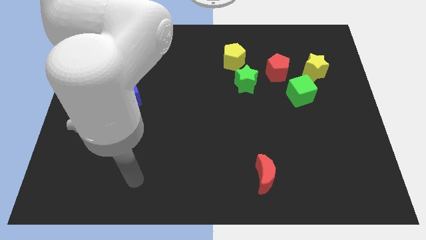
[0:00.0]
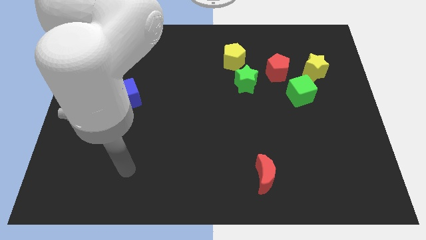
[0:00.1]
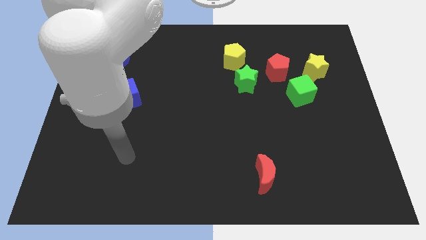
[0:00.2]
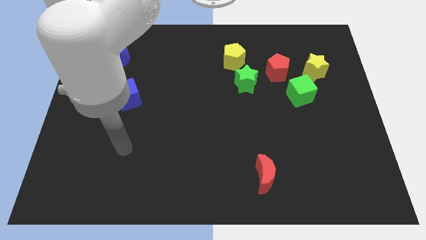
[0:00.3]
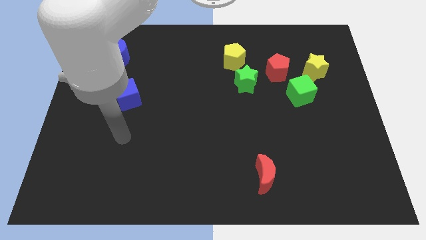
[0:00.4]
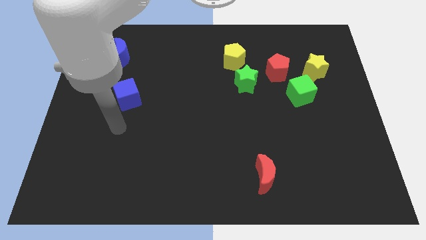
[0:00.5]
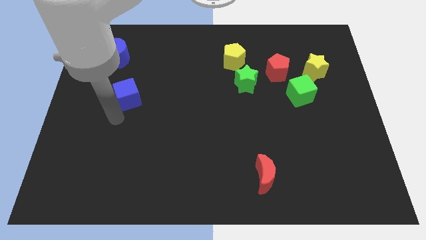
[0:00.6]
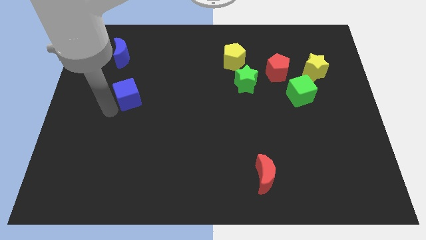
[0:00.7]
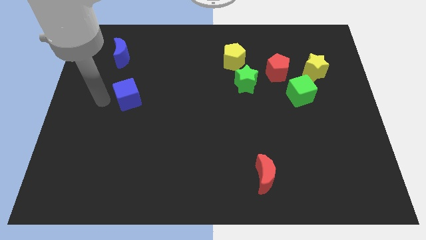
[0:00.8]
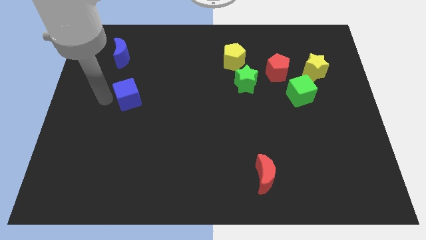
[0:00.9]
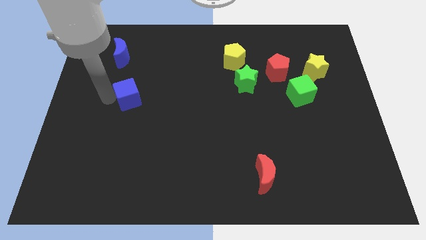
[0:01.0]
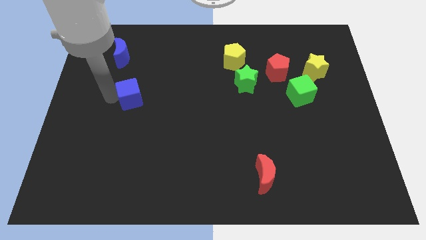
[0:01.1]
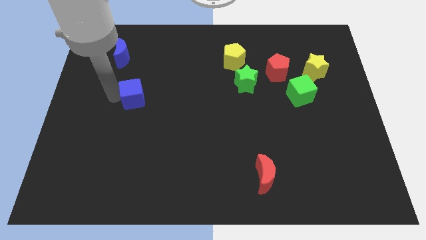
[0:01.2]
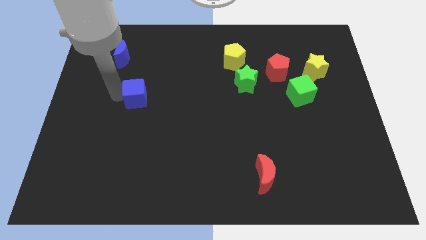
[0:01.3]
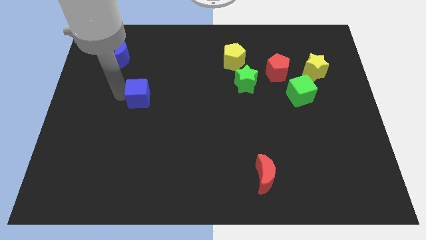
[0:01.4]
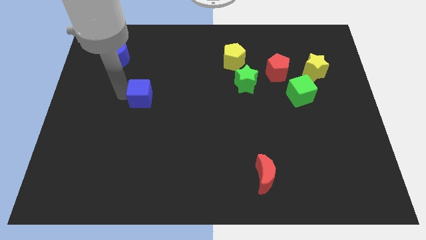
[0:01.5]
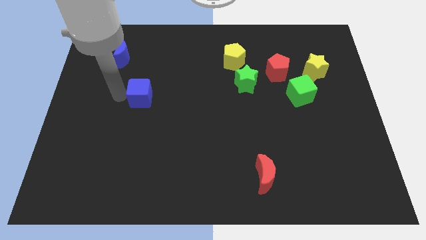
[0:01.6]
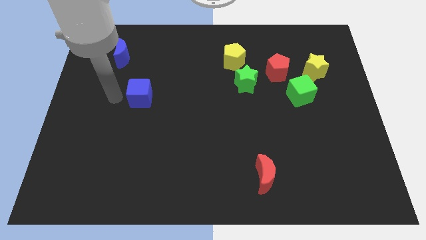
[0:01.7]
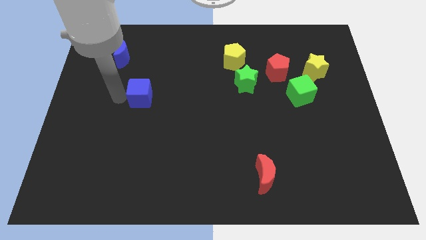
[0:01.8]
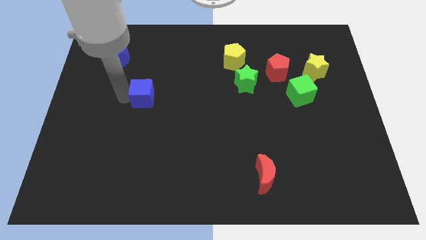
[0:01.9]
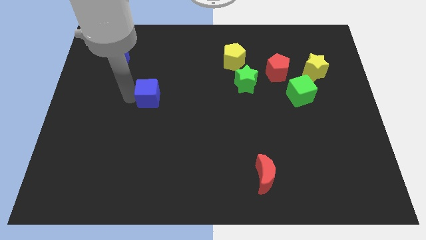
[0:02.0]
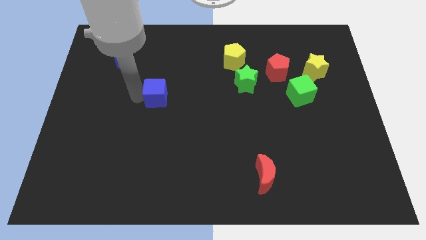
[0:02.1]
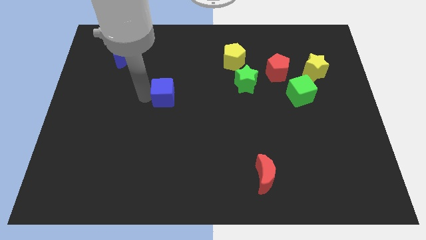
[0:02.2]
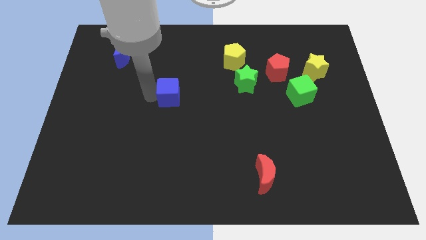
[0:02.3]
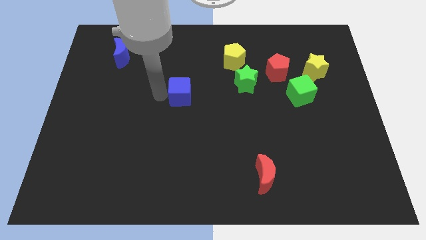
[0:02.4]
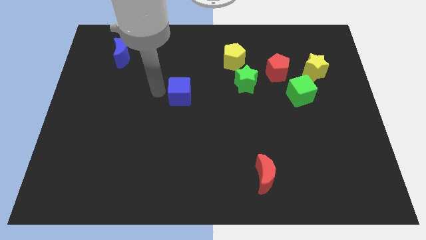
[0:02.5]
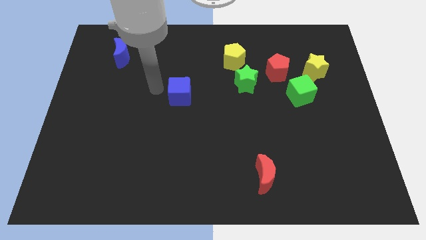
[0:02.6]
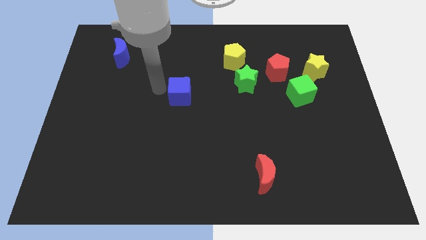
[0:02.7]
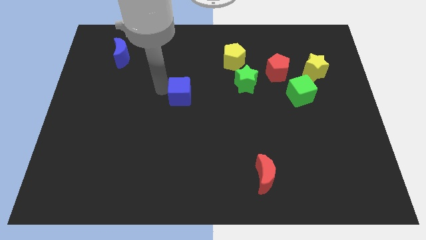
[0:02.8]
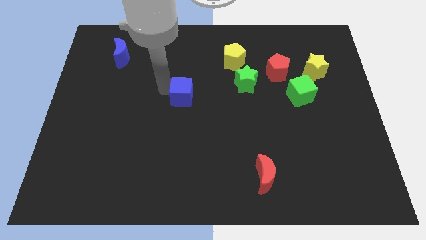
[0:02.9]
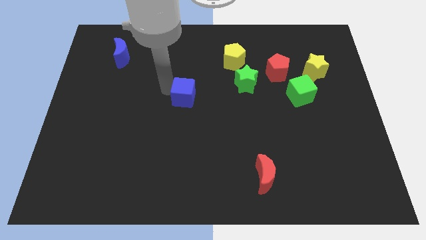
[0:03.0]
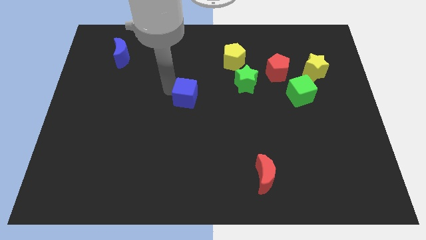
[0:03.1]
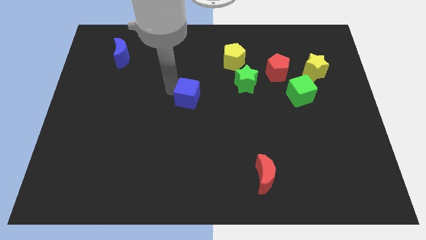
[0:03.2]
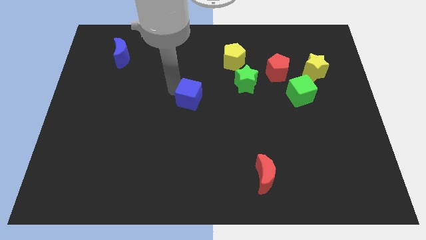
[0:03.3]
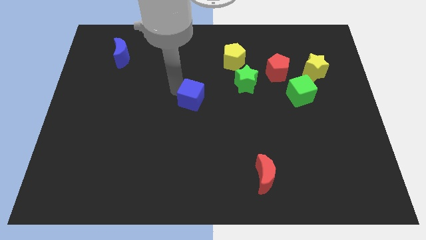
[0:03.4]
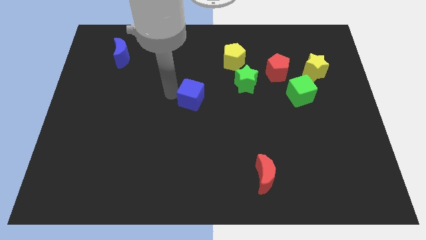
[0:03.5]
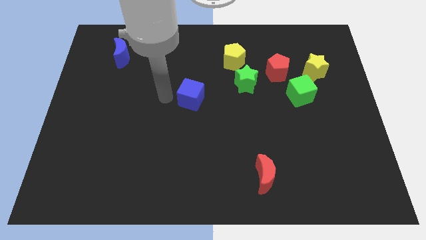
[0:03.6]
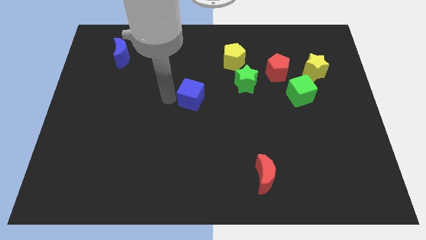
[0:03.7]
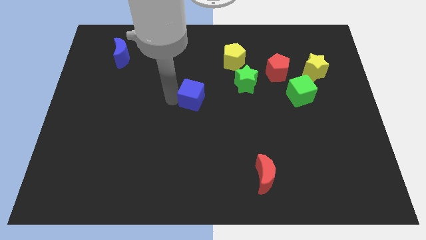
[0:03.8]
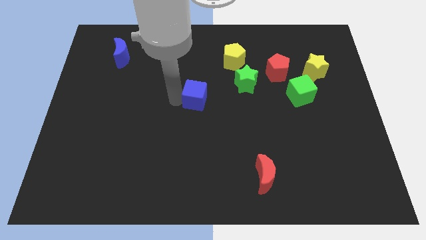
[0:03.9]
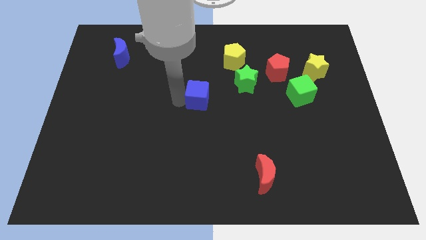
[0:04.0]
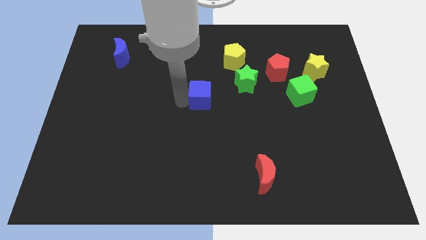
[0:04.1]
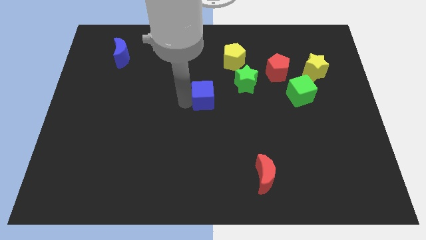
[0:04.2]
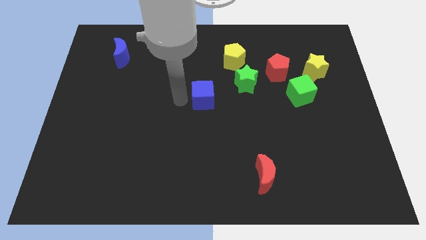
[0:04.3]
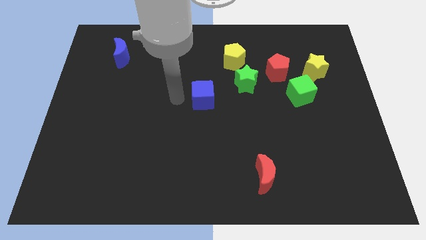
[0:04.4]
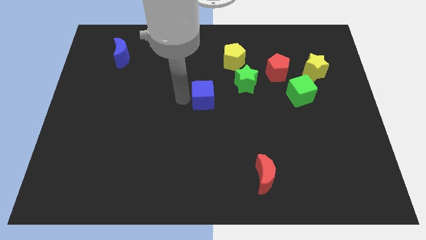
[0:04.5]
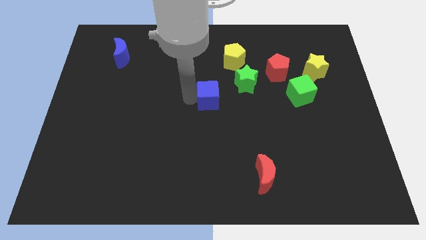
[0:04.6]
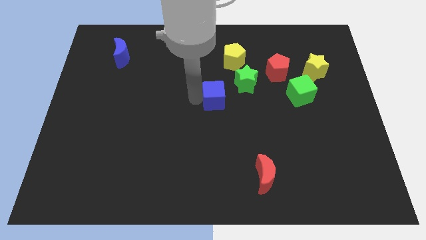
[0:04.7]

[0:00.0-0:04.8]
move the blue cube to the right

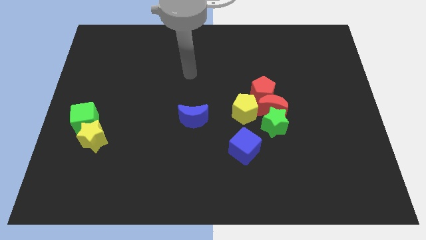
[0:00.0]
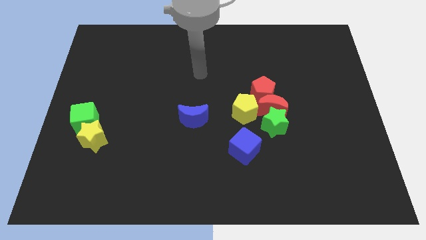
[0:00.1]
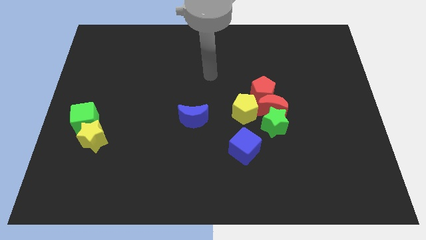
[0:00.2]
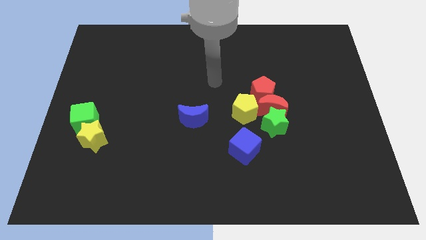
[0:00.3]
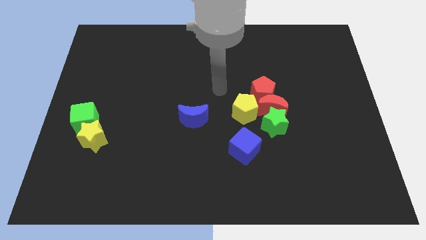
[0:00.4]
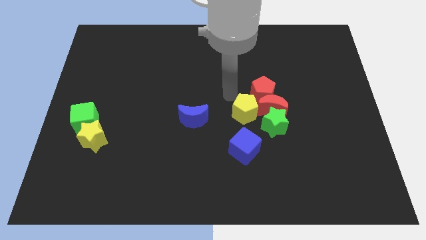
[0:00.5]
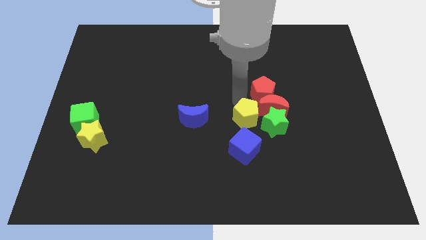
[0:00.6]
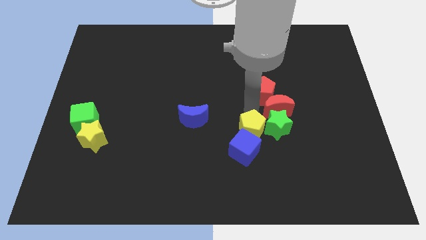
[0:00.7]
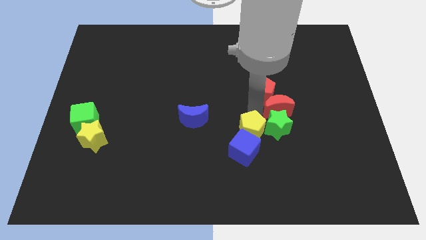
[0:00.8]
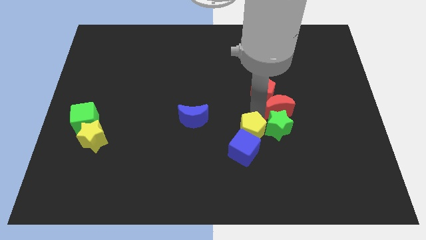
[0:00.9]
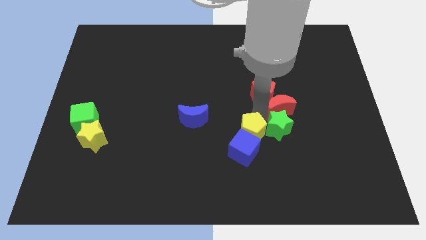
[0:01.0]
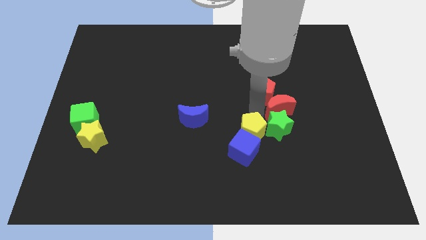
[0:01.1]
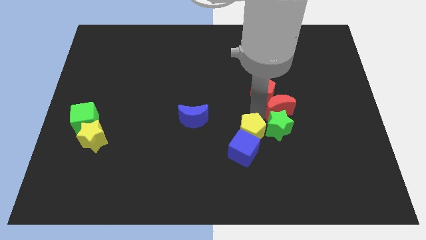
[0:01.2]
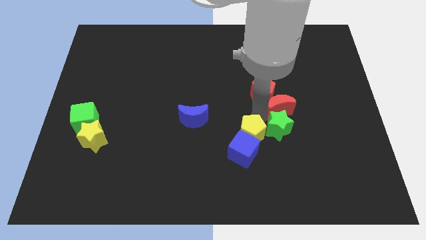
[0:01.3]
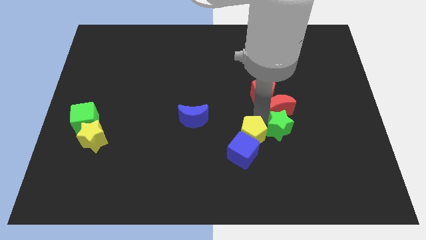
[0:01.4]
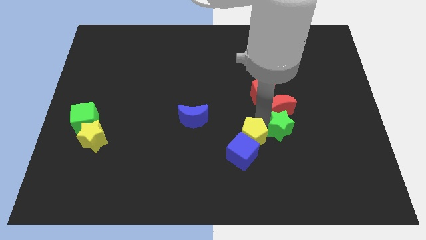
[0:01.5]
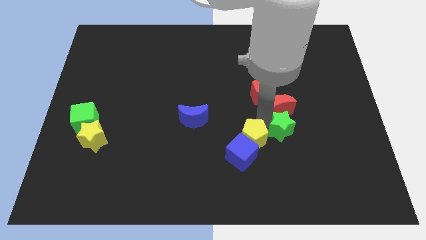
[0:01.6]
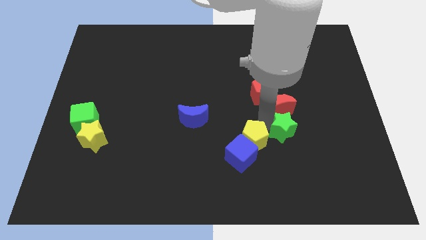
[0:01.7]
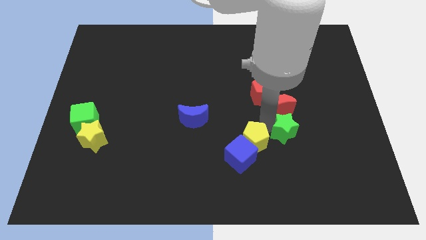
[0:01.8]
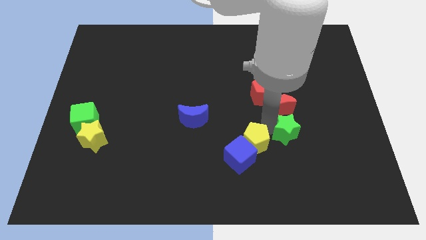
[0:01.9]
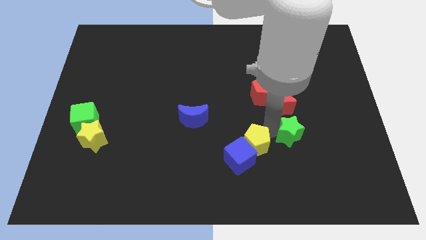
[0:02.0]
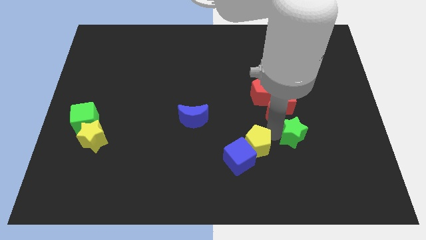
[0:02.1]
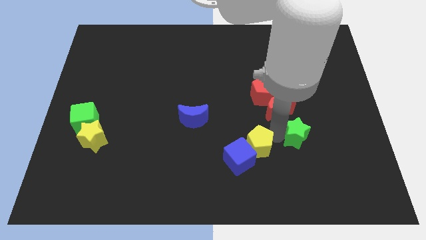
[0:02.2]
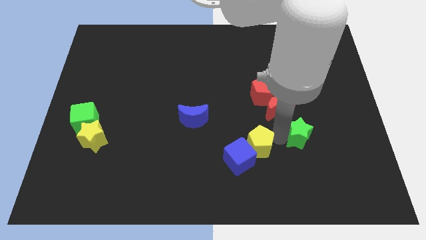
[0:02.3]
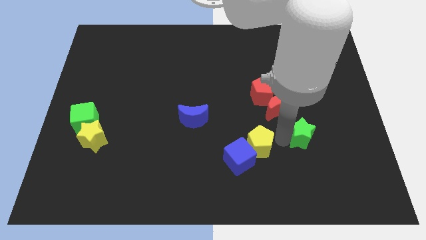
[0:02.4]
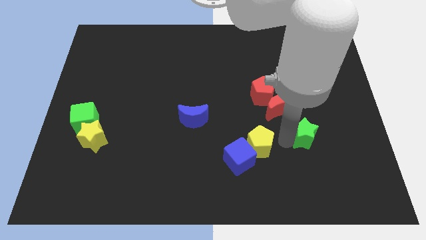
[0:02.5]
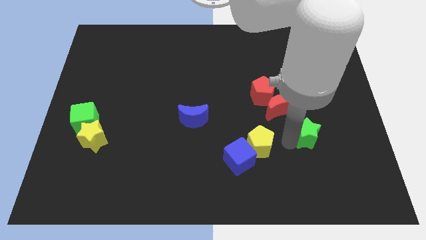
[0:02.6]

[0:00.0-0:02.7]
move the green star slightly downwards and to the right diagonally

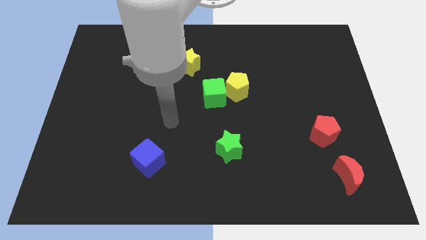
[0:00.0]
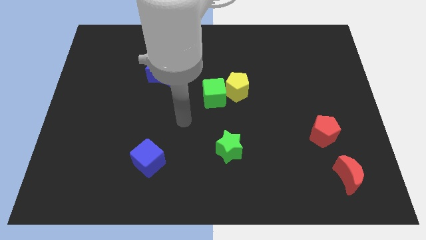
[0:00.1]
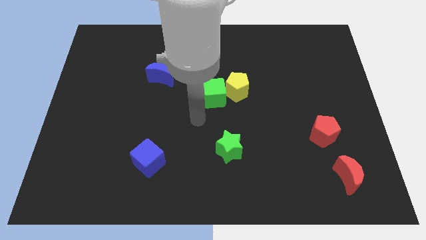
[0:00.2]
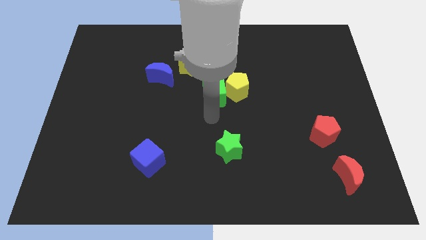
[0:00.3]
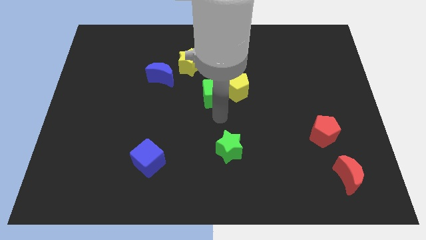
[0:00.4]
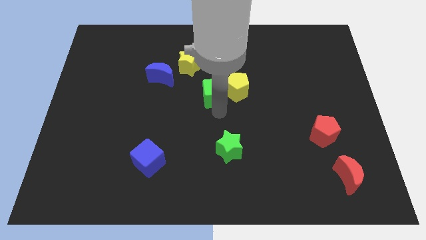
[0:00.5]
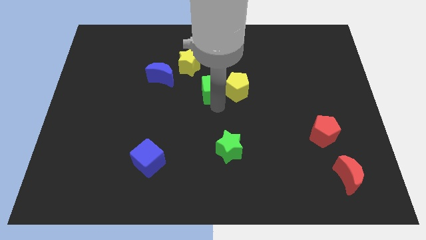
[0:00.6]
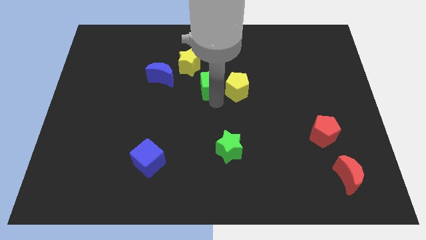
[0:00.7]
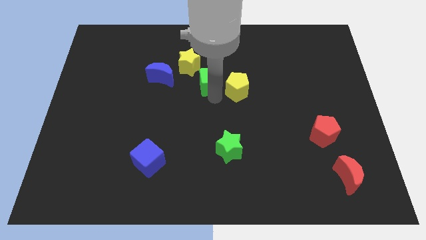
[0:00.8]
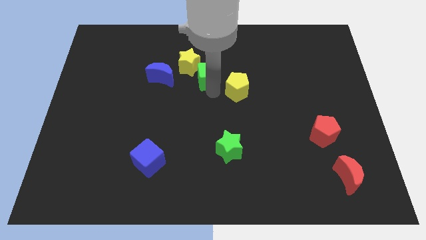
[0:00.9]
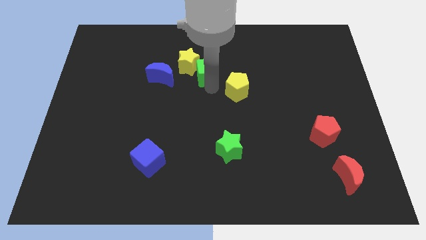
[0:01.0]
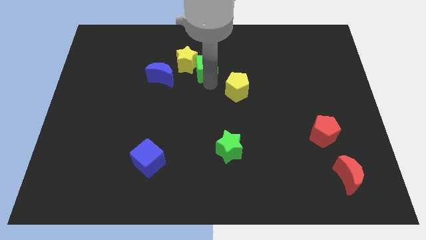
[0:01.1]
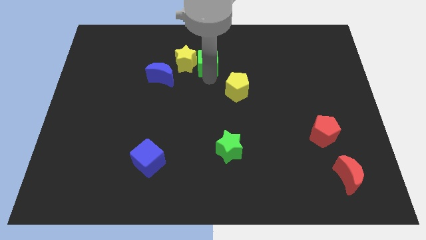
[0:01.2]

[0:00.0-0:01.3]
push the green cube a bit up and then to the left
